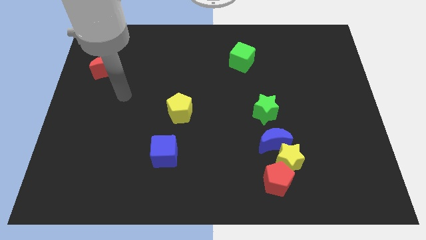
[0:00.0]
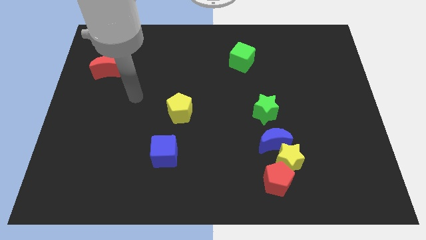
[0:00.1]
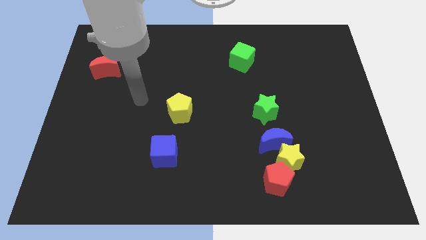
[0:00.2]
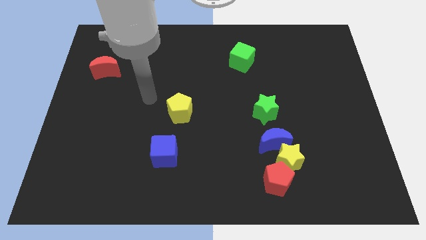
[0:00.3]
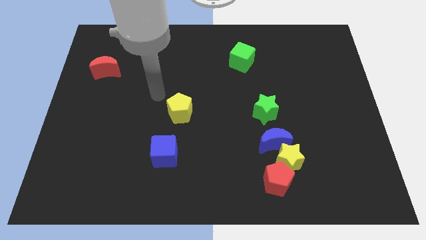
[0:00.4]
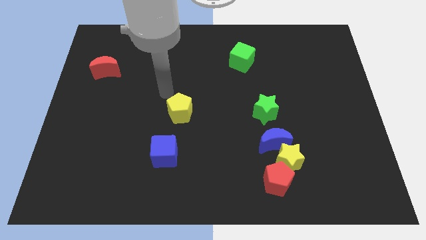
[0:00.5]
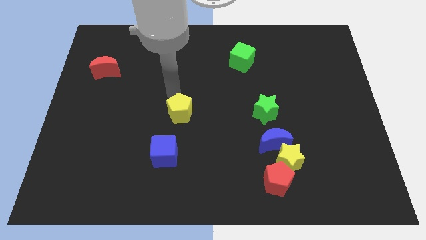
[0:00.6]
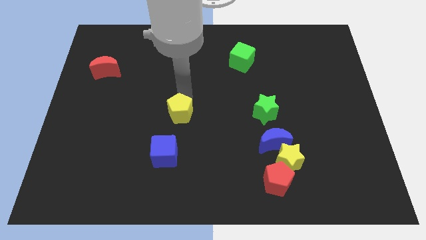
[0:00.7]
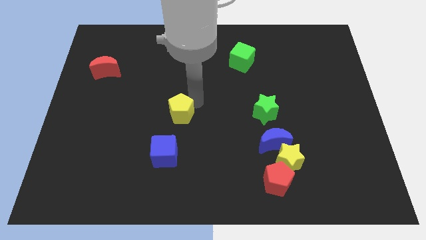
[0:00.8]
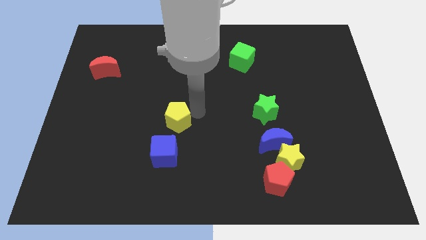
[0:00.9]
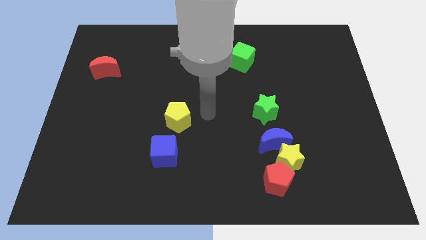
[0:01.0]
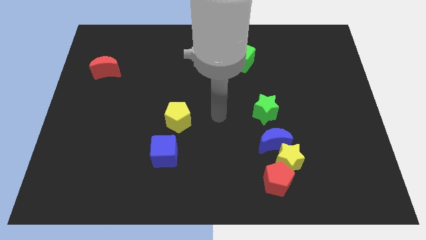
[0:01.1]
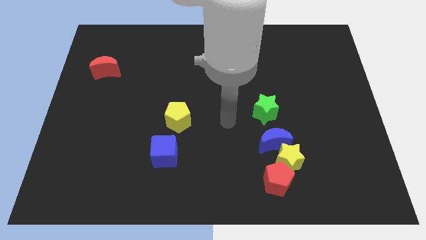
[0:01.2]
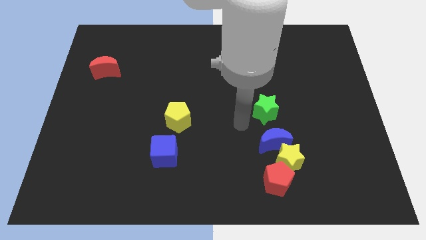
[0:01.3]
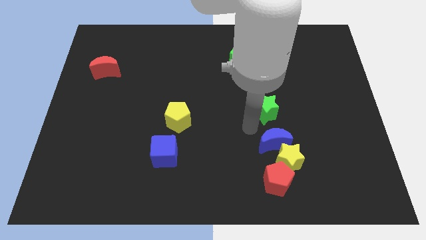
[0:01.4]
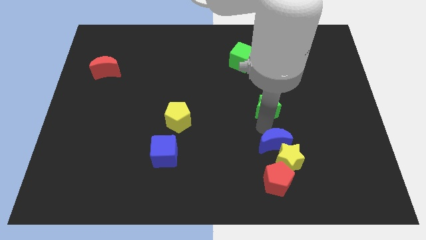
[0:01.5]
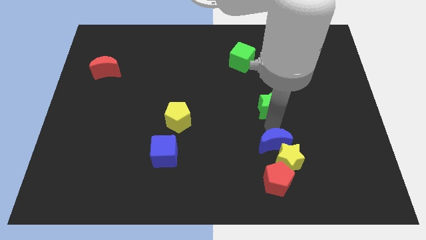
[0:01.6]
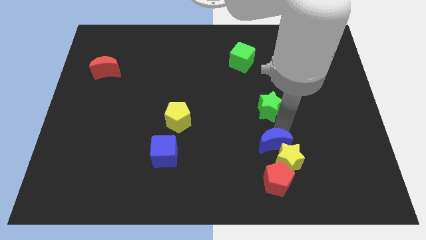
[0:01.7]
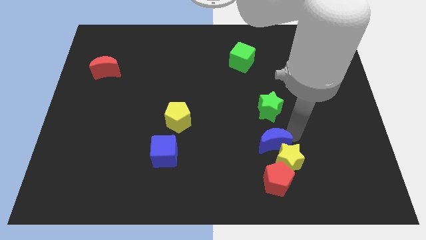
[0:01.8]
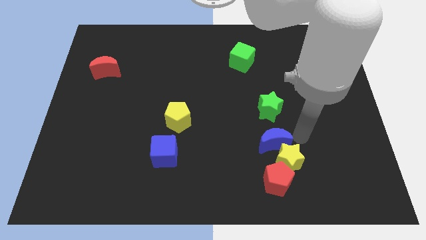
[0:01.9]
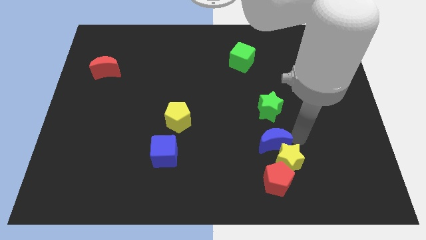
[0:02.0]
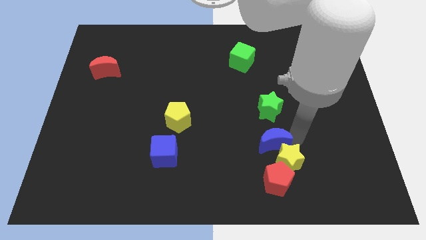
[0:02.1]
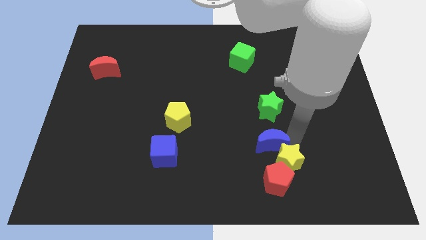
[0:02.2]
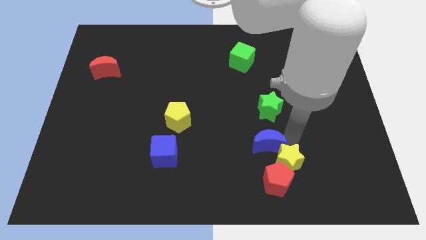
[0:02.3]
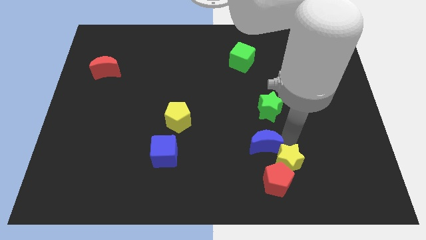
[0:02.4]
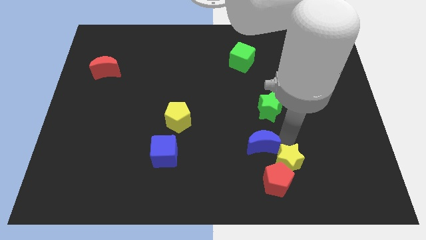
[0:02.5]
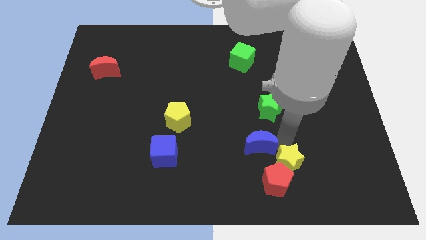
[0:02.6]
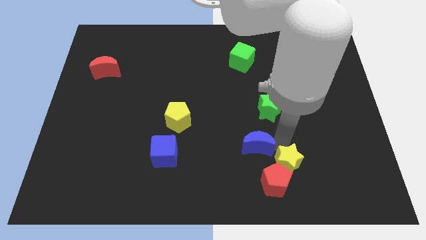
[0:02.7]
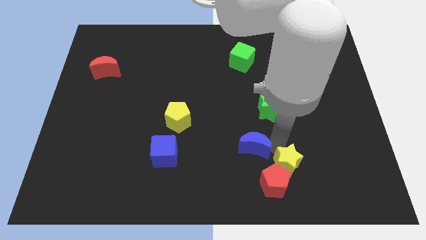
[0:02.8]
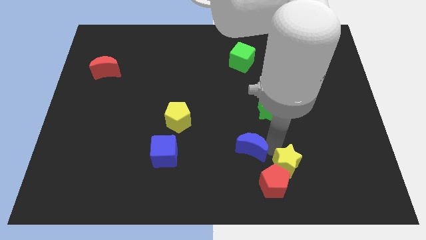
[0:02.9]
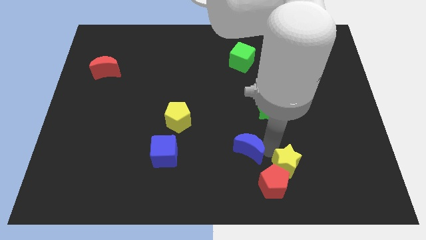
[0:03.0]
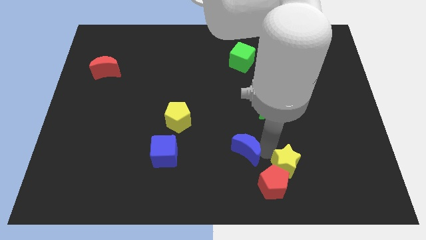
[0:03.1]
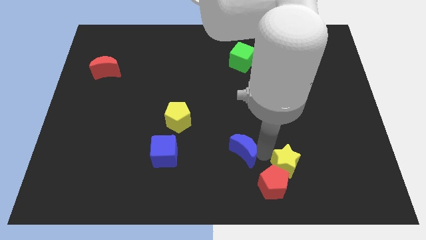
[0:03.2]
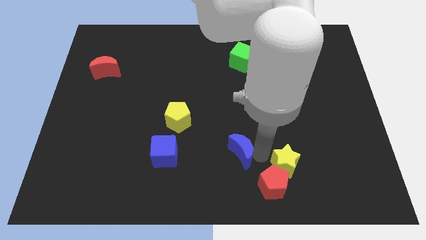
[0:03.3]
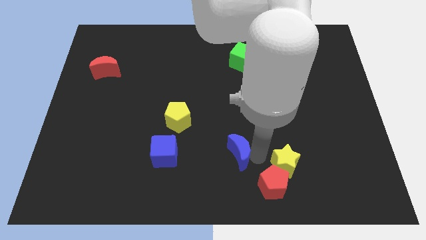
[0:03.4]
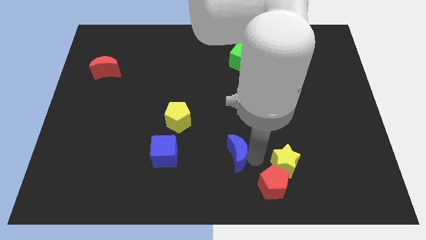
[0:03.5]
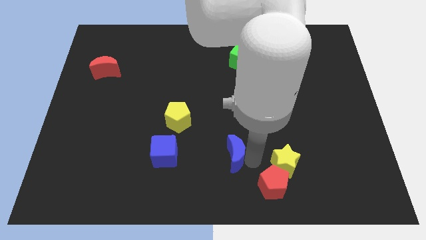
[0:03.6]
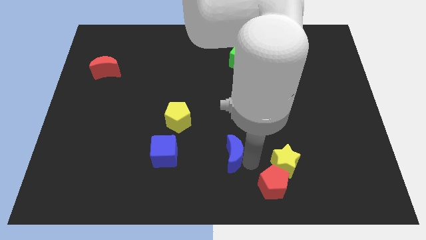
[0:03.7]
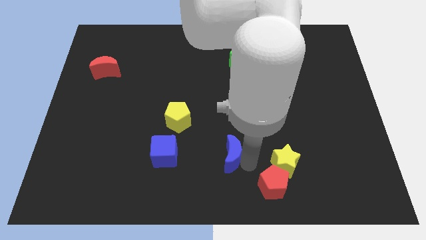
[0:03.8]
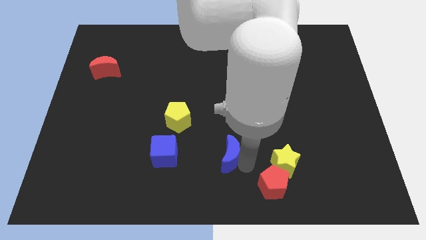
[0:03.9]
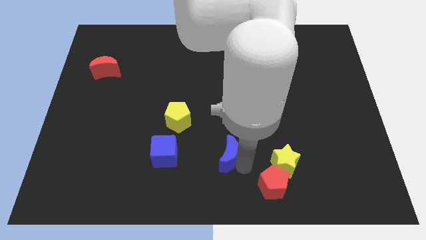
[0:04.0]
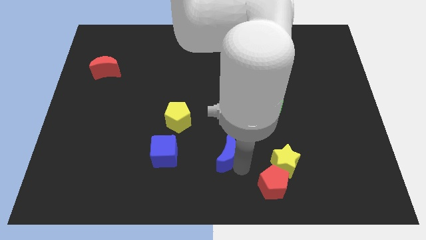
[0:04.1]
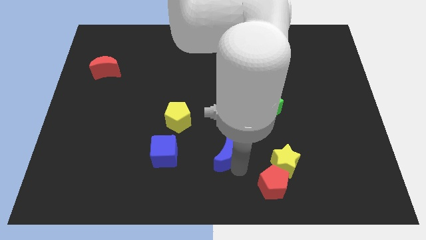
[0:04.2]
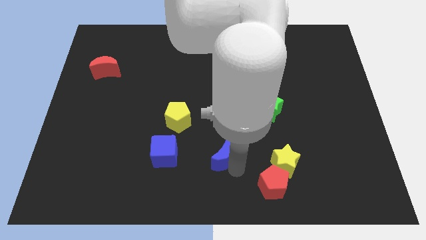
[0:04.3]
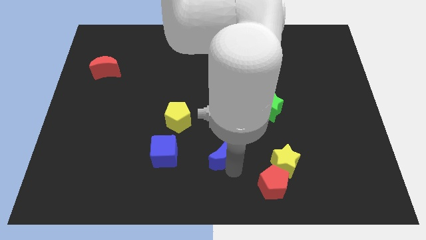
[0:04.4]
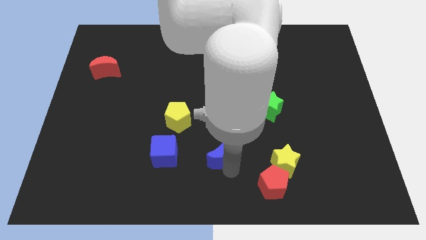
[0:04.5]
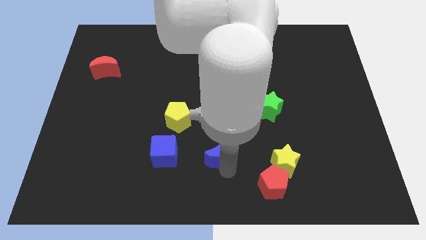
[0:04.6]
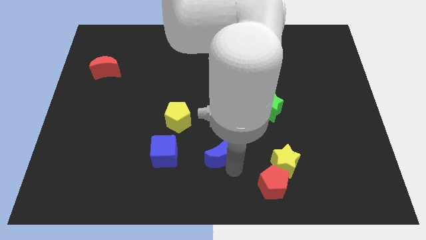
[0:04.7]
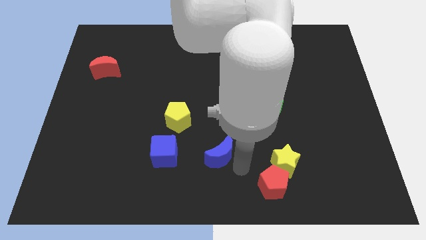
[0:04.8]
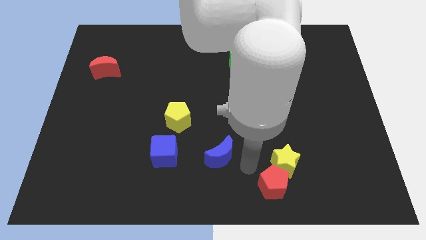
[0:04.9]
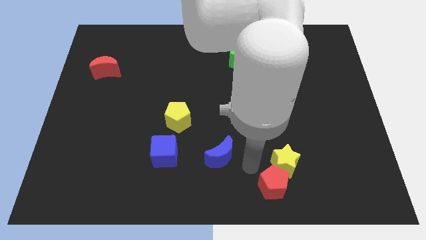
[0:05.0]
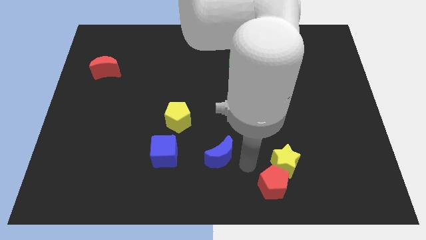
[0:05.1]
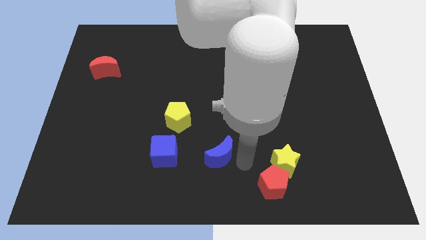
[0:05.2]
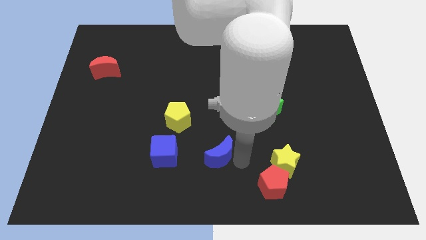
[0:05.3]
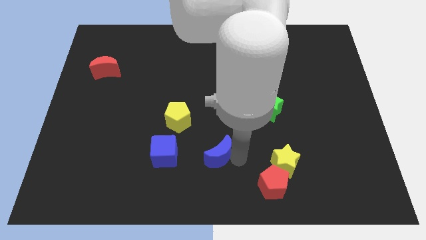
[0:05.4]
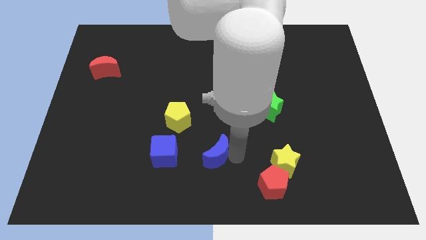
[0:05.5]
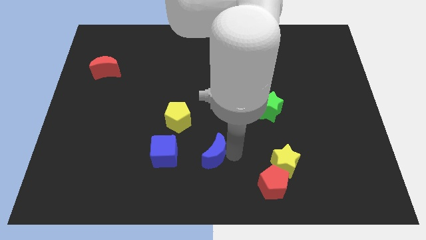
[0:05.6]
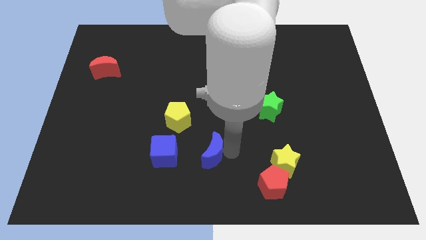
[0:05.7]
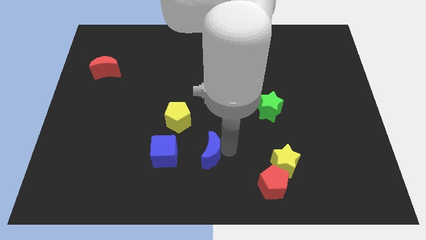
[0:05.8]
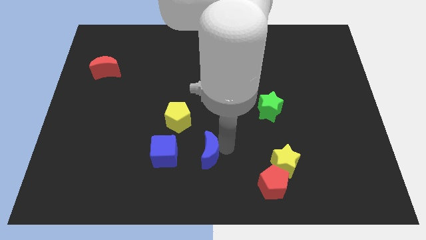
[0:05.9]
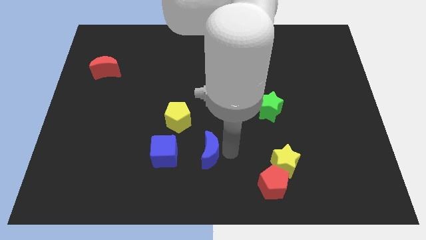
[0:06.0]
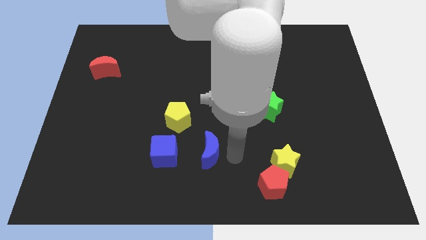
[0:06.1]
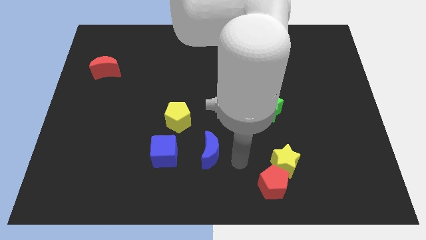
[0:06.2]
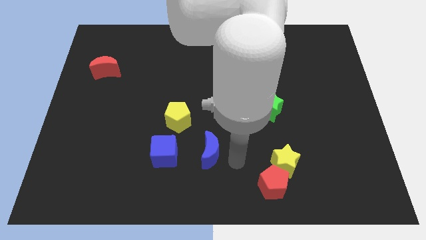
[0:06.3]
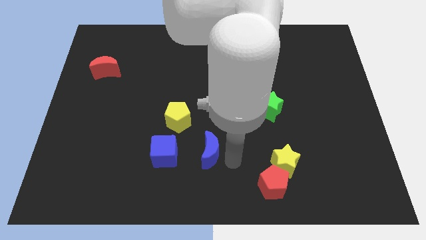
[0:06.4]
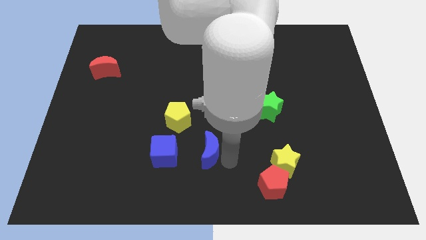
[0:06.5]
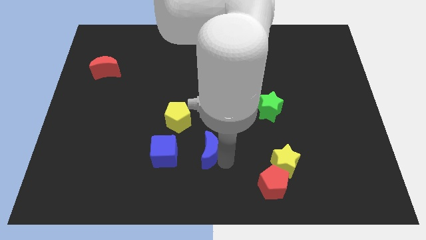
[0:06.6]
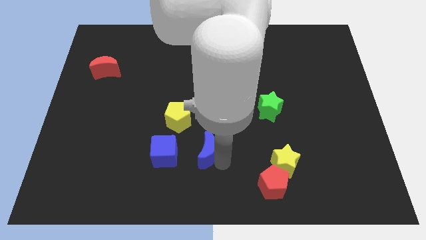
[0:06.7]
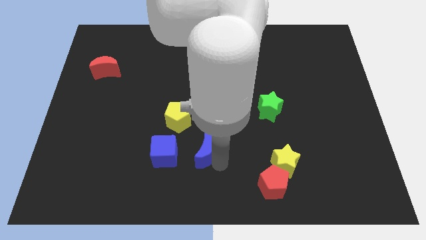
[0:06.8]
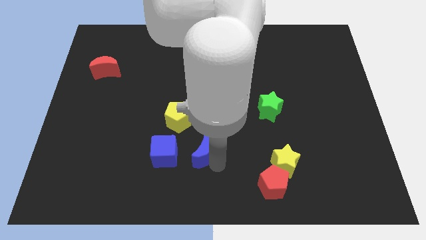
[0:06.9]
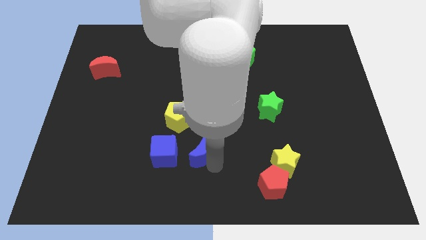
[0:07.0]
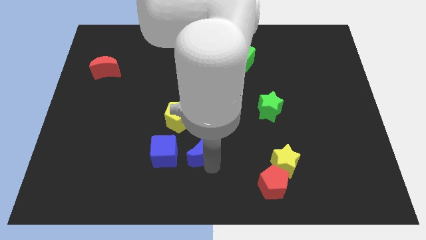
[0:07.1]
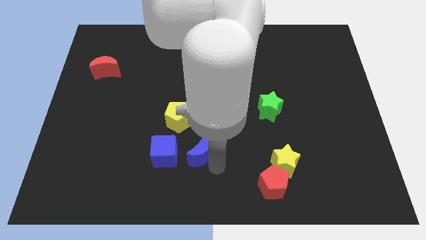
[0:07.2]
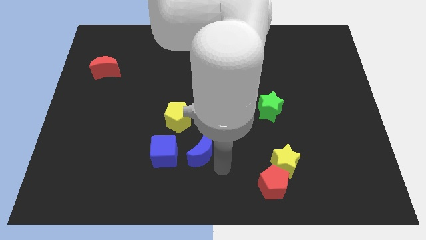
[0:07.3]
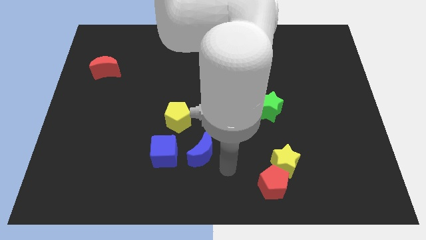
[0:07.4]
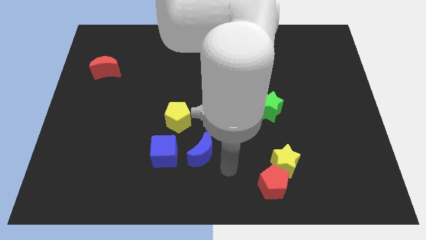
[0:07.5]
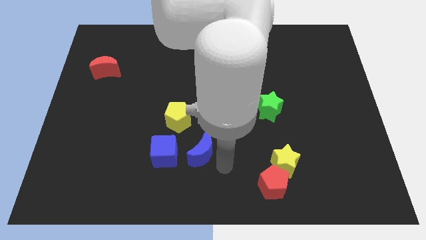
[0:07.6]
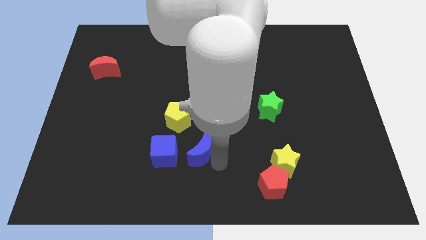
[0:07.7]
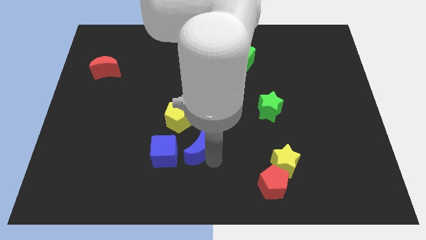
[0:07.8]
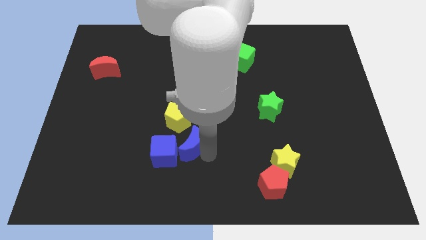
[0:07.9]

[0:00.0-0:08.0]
put the blue moon towards the blue cube
